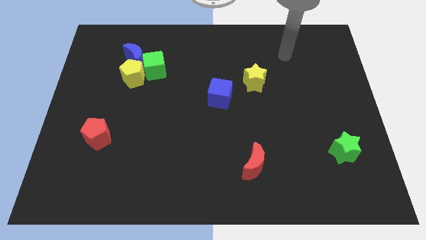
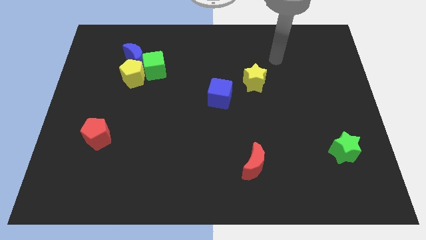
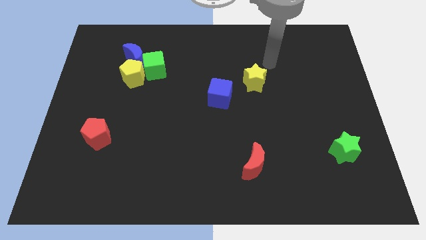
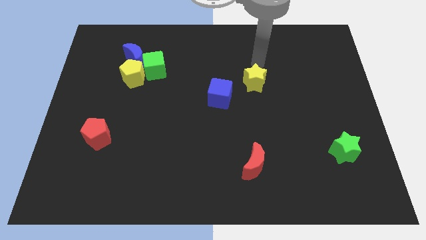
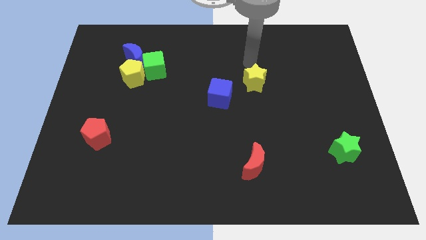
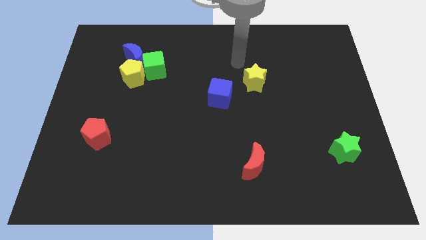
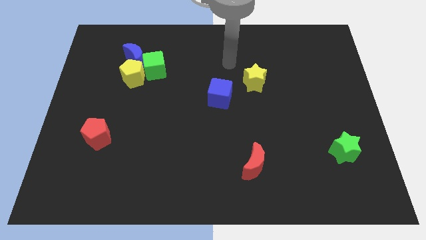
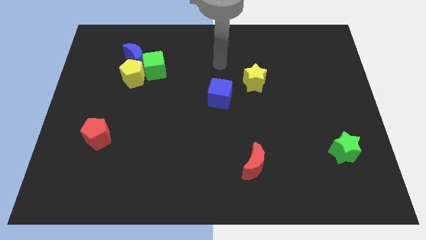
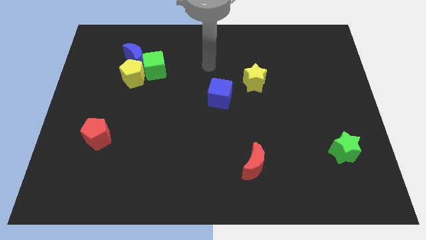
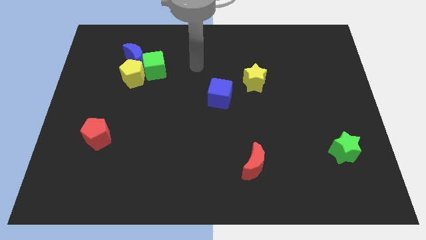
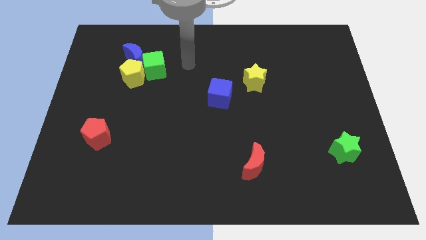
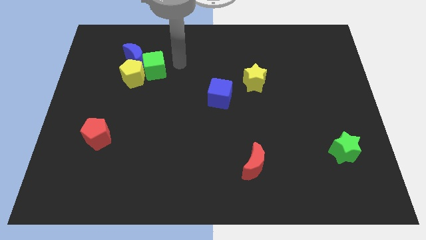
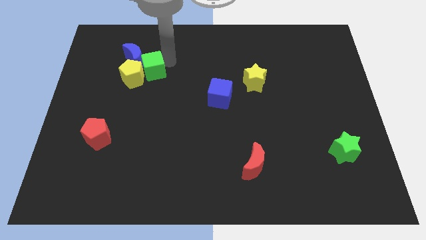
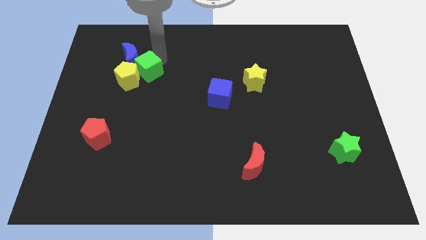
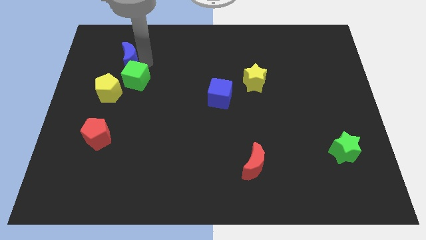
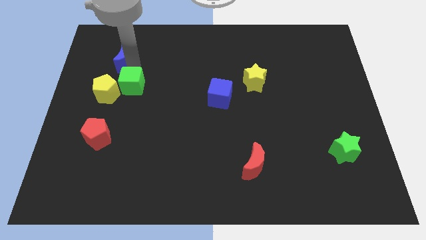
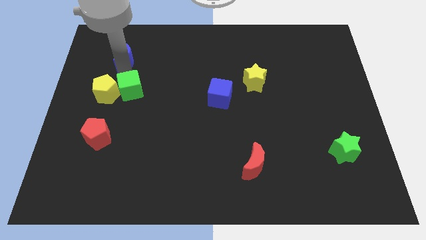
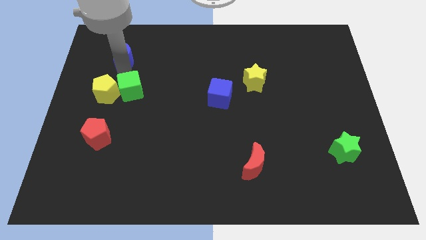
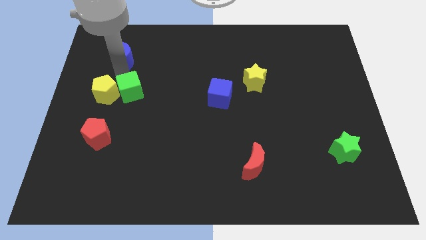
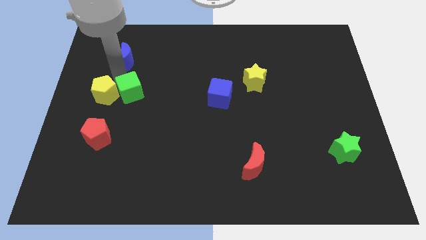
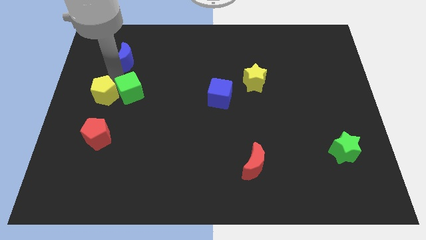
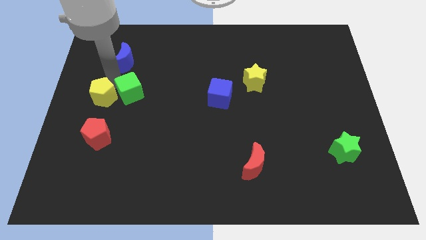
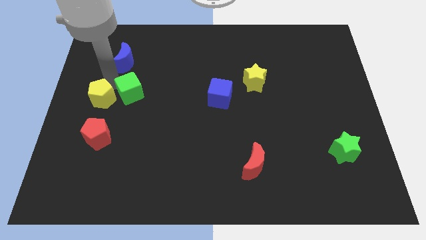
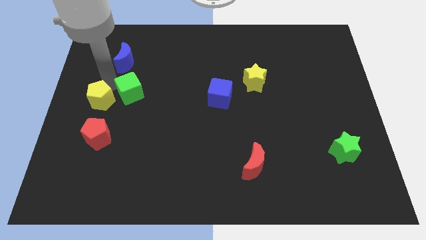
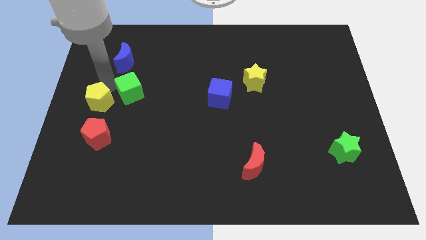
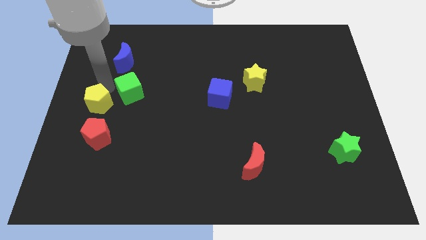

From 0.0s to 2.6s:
separate the yellow pentagon from the green cube and blue moon

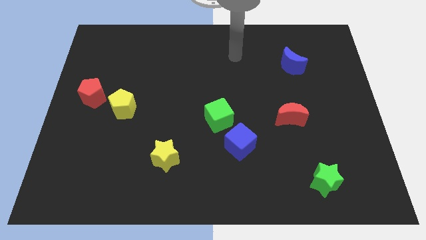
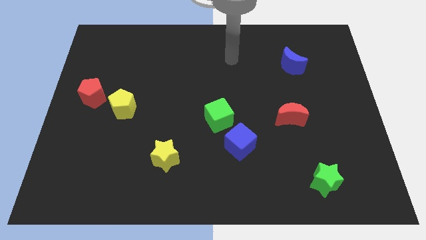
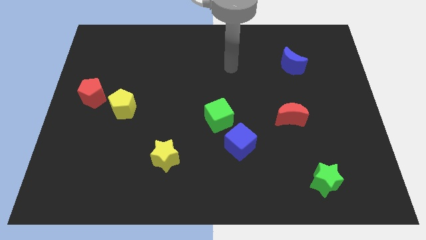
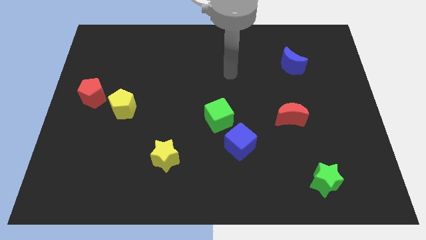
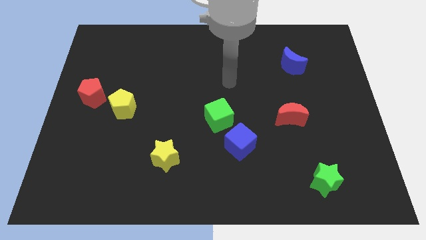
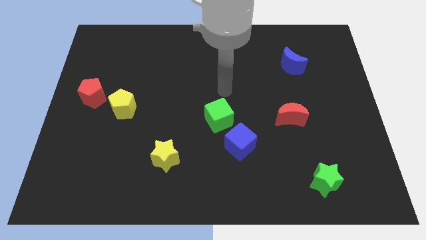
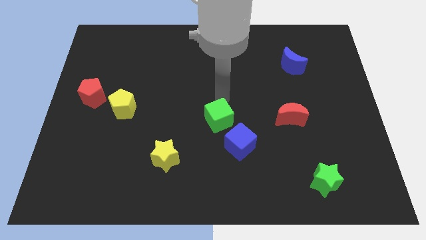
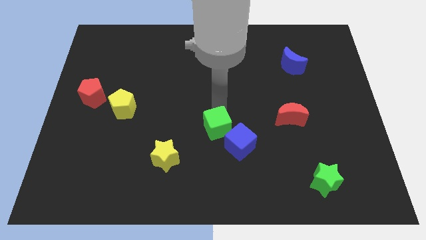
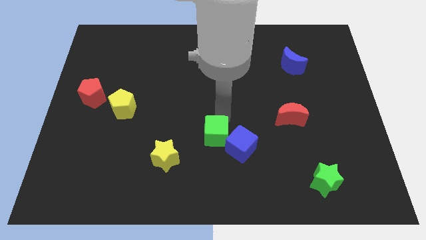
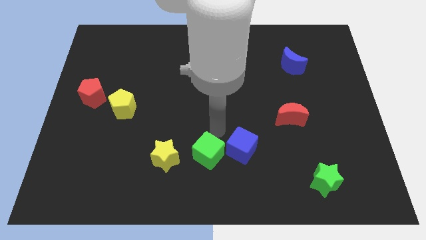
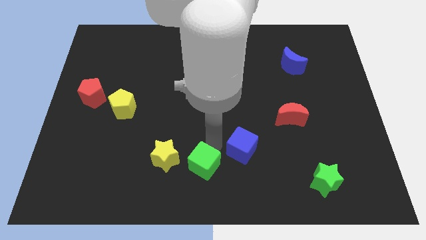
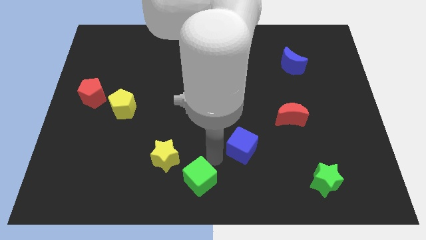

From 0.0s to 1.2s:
move the blue cube away from the green cube

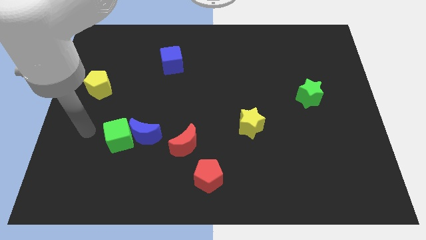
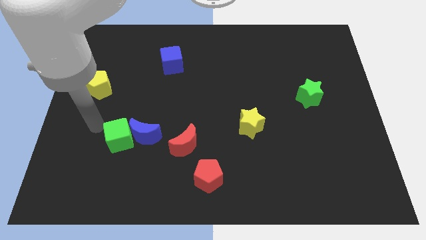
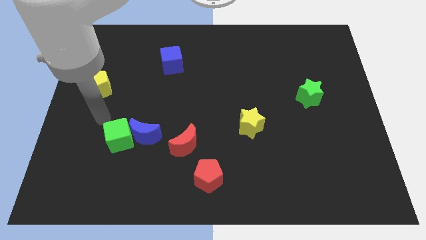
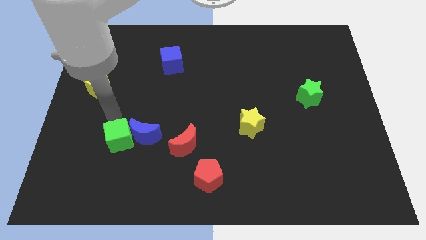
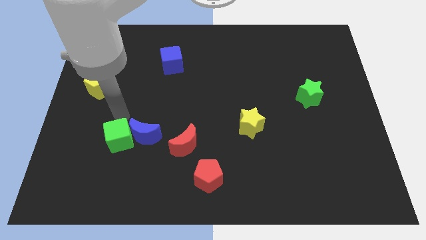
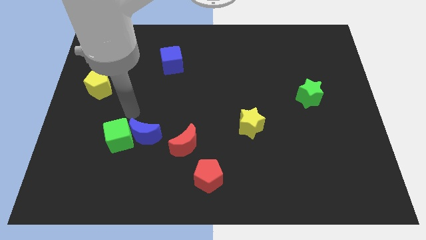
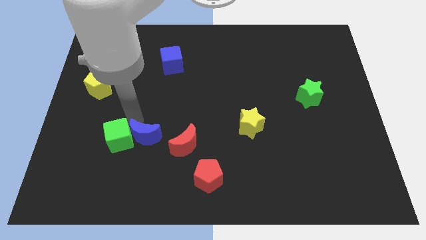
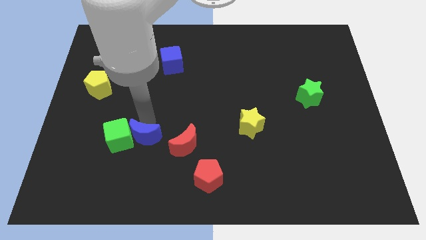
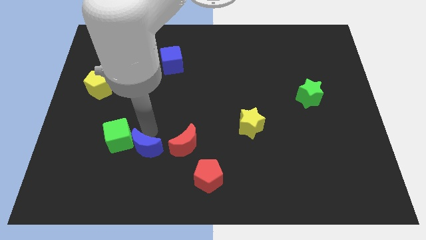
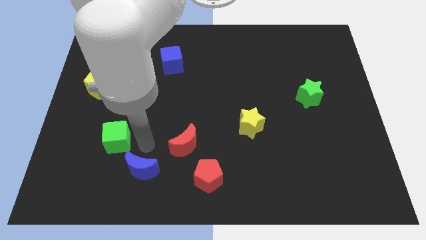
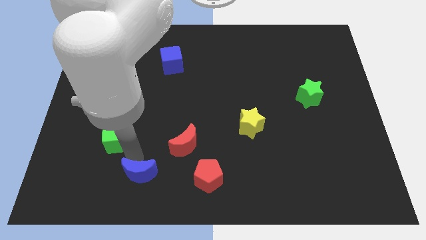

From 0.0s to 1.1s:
separate the green cube from the blue moon

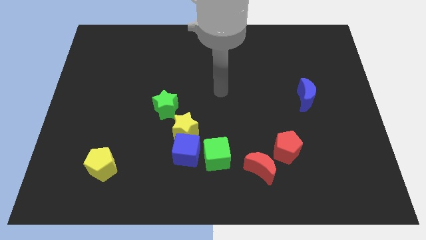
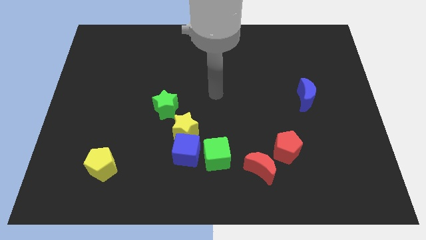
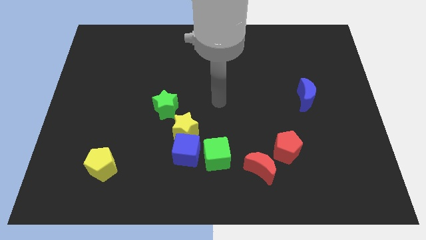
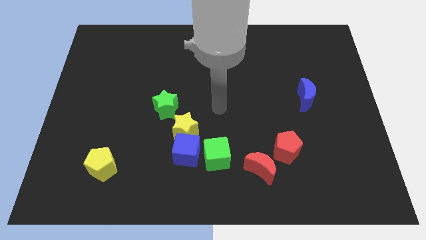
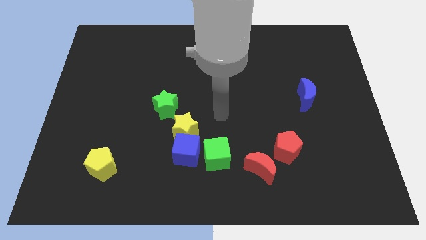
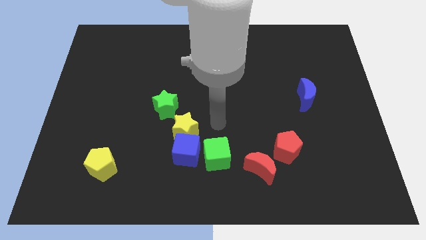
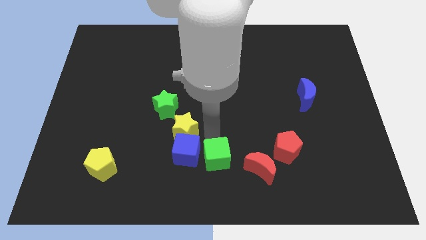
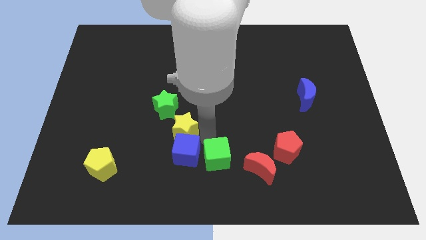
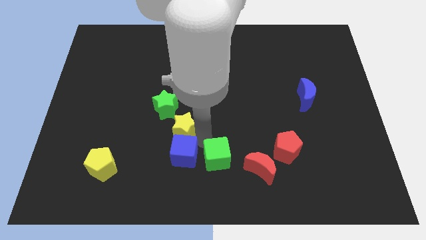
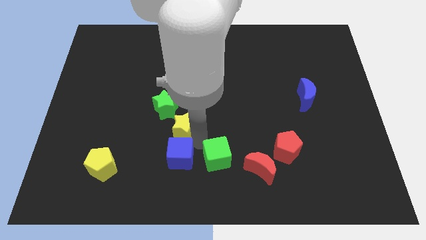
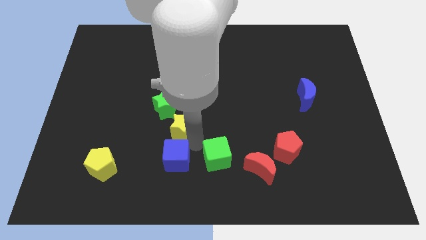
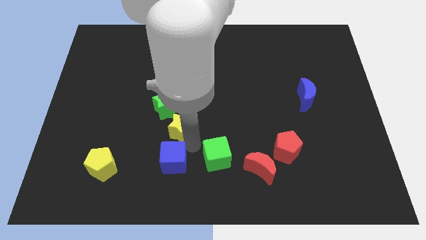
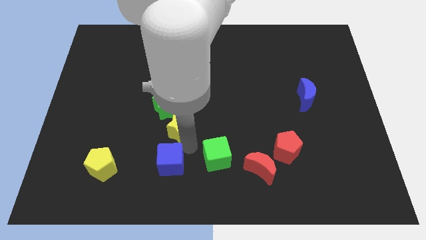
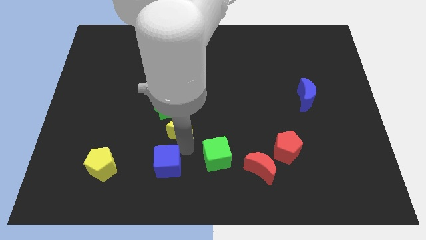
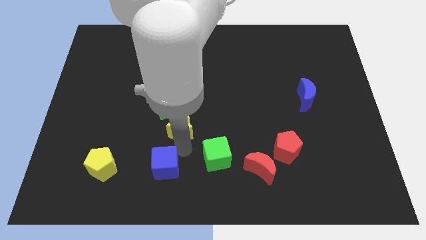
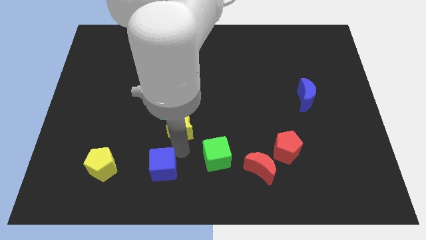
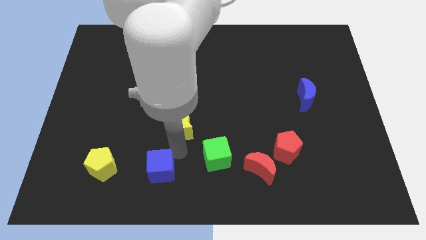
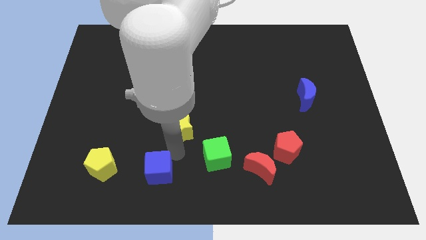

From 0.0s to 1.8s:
separate the blue cube from the yellow star and green cube

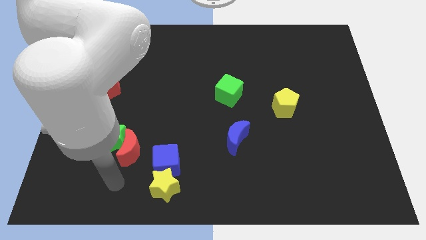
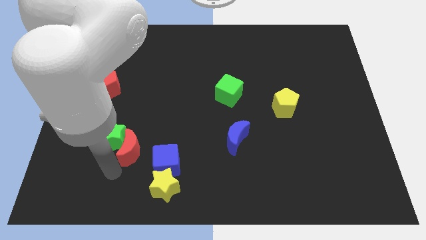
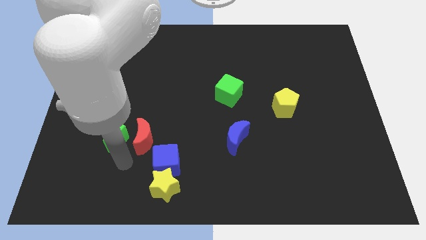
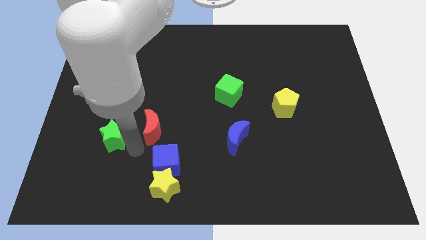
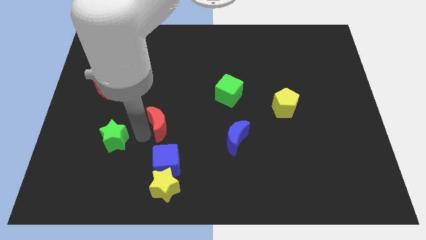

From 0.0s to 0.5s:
move the green star away from the red moon

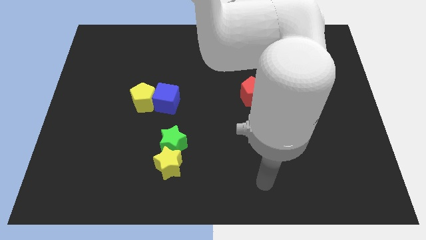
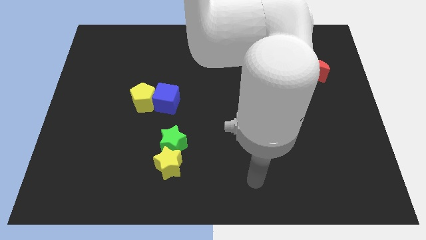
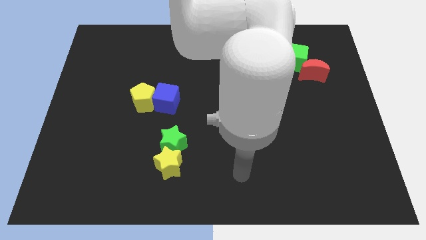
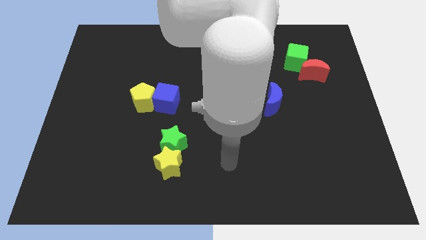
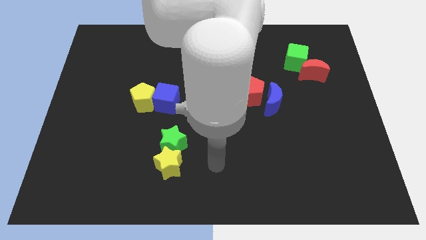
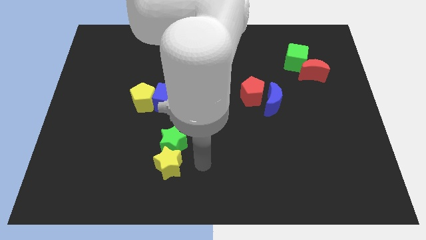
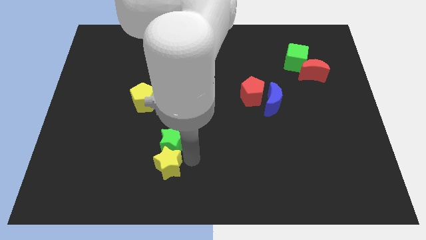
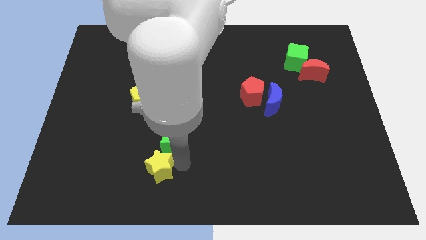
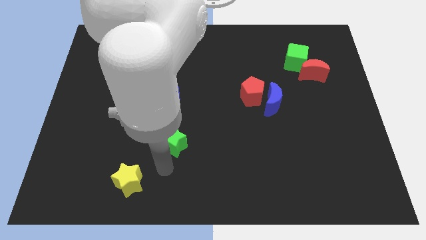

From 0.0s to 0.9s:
pull the green star apart from the yellow star

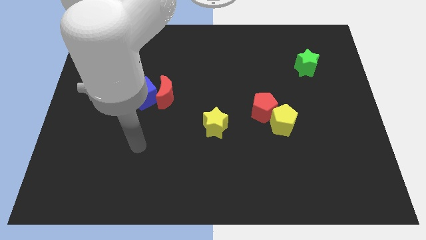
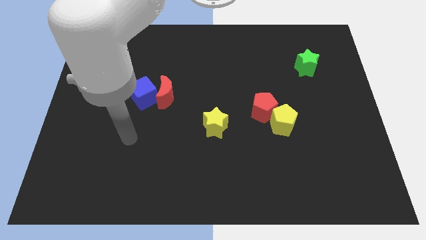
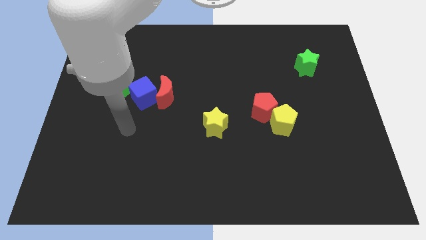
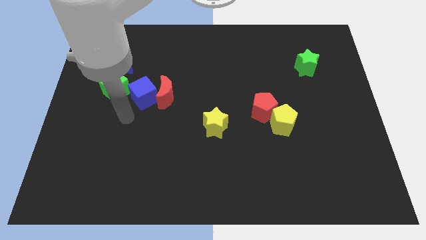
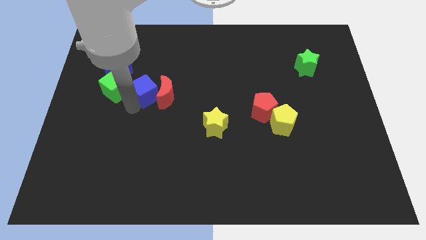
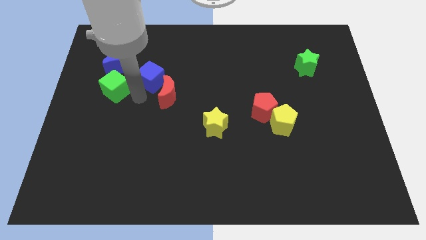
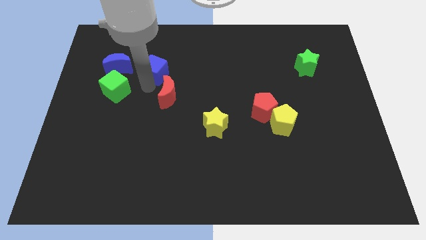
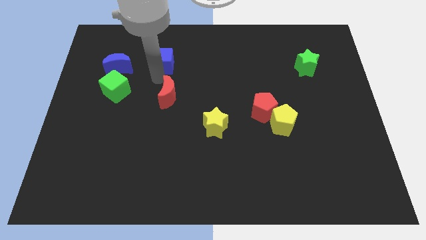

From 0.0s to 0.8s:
pull the red moon apart from the blue cube

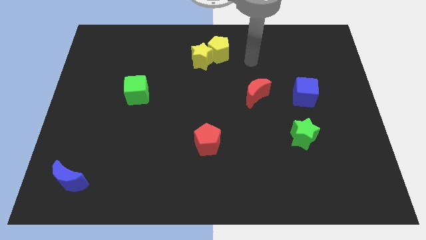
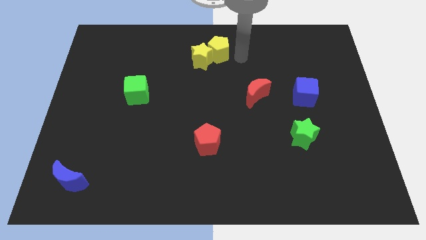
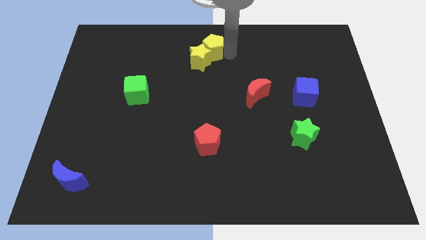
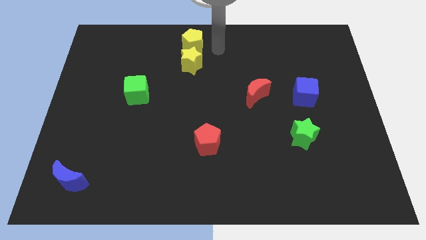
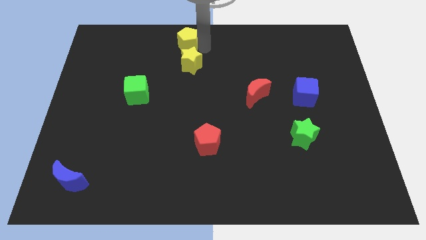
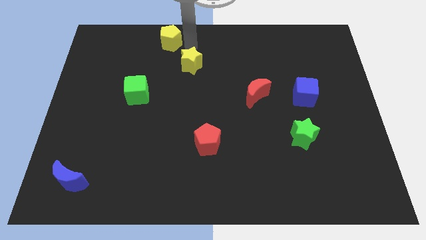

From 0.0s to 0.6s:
separate the yellow star from the yellow pentagon
